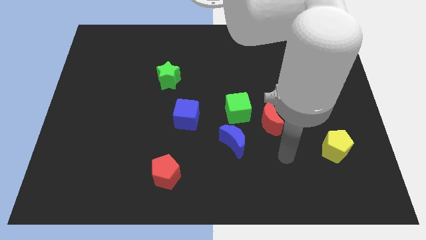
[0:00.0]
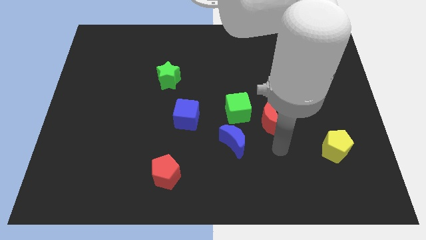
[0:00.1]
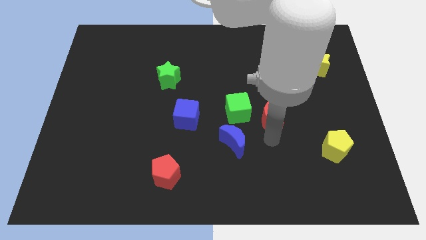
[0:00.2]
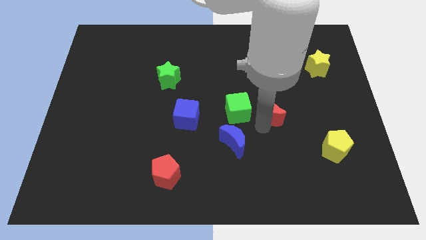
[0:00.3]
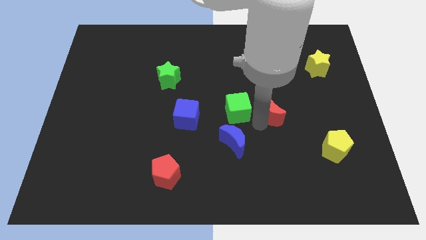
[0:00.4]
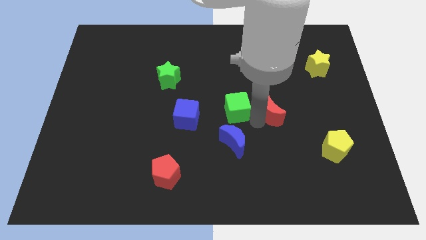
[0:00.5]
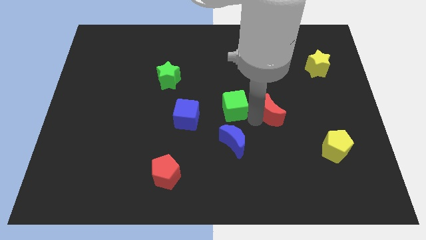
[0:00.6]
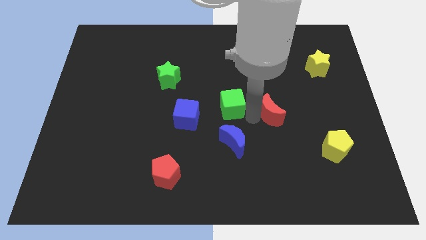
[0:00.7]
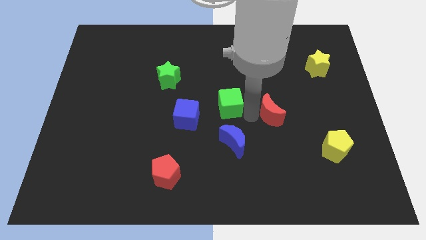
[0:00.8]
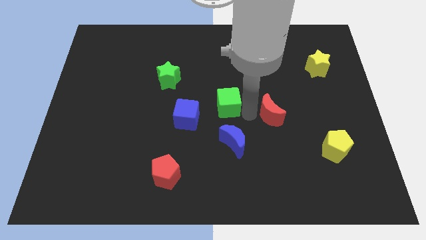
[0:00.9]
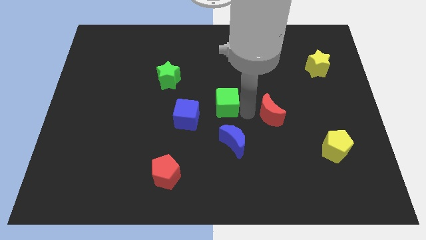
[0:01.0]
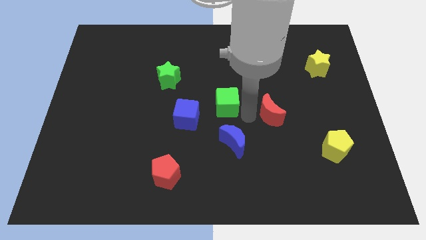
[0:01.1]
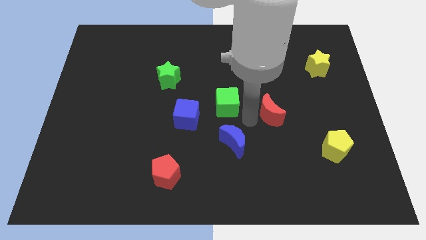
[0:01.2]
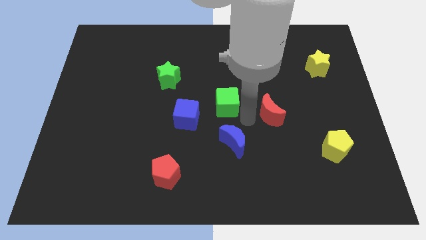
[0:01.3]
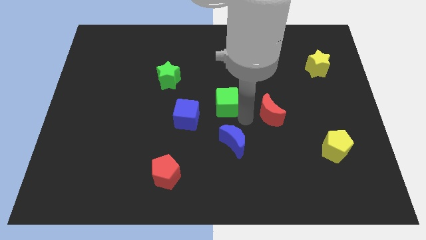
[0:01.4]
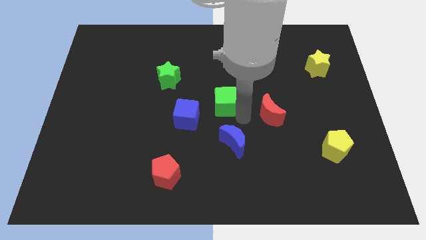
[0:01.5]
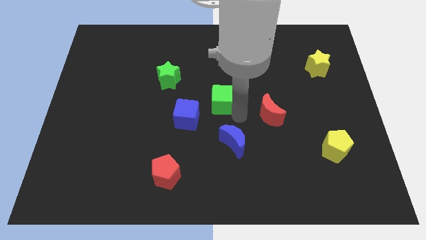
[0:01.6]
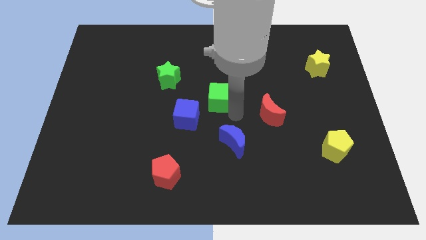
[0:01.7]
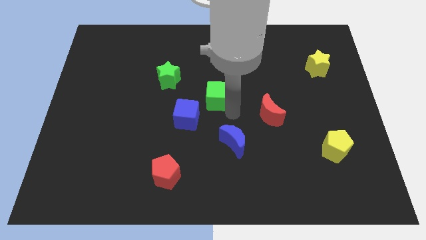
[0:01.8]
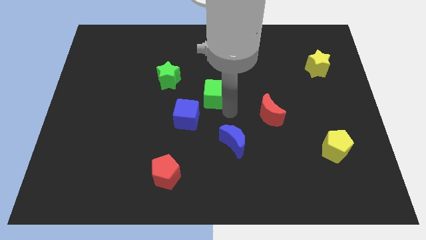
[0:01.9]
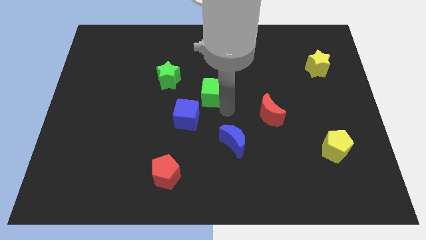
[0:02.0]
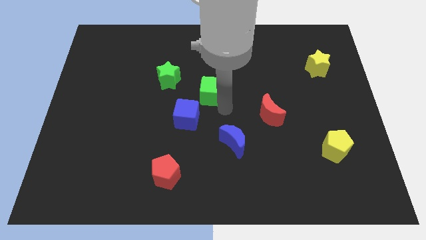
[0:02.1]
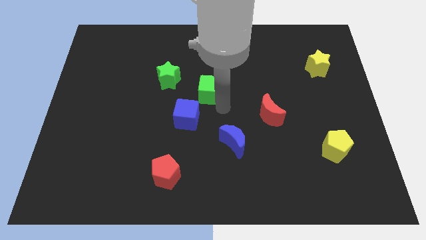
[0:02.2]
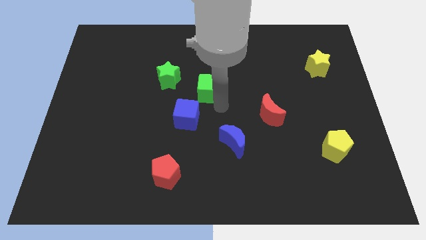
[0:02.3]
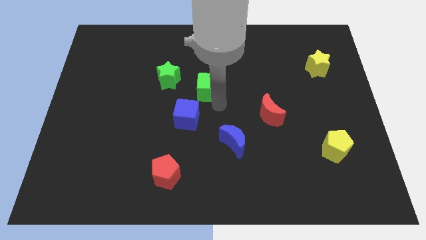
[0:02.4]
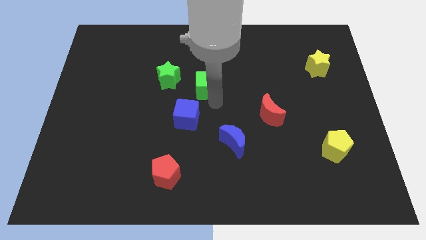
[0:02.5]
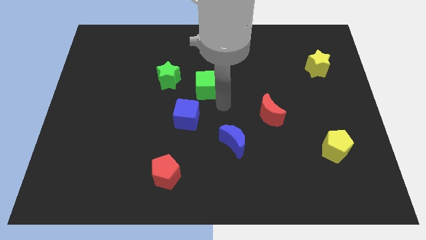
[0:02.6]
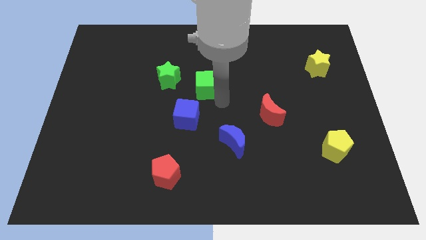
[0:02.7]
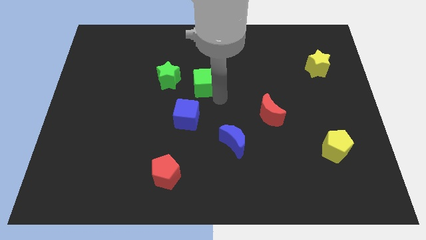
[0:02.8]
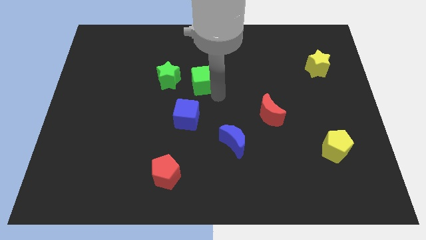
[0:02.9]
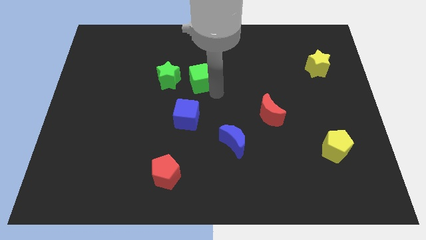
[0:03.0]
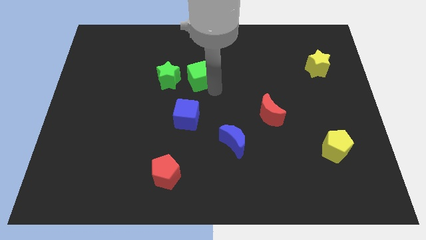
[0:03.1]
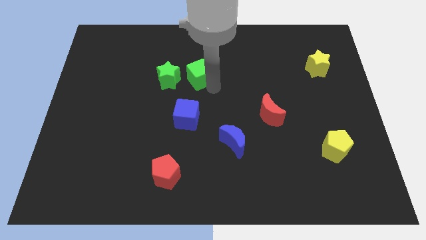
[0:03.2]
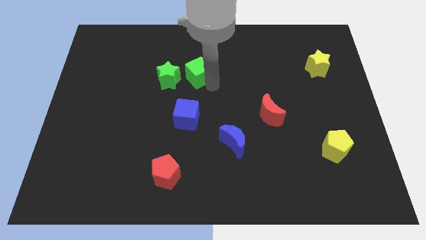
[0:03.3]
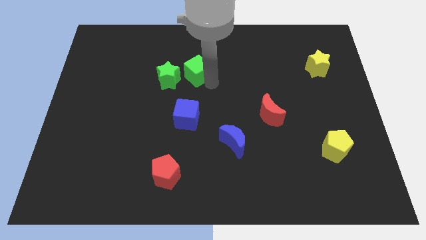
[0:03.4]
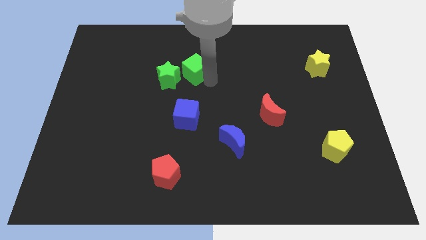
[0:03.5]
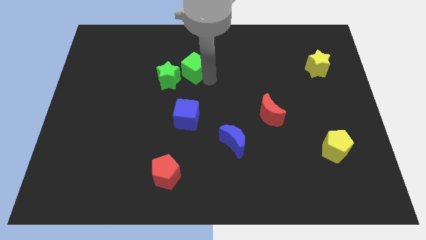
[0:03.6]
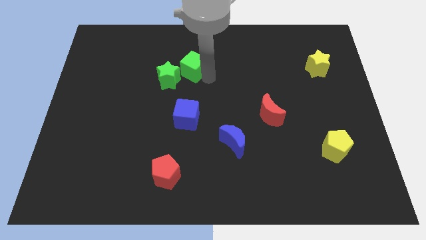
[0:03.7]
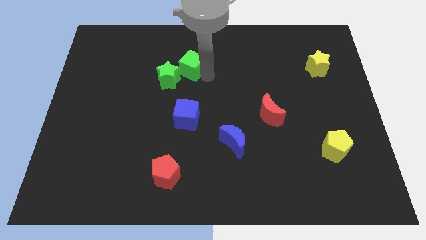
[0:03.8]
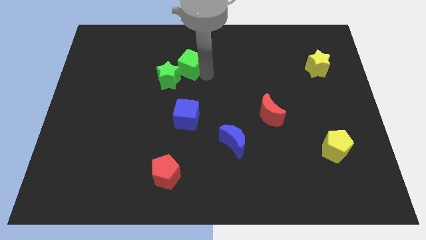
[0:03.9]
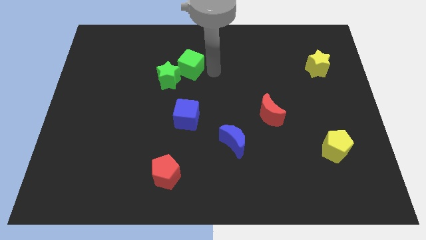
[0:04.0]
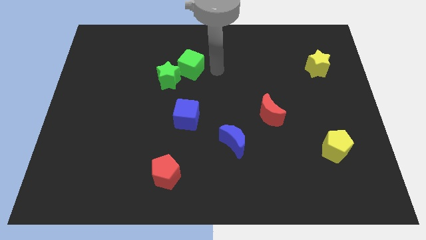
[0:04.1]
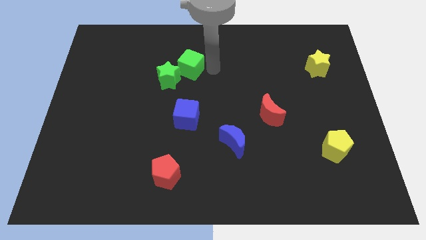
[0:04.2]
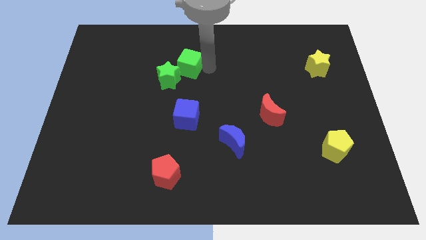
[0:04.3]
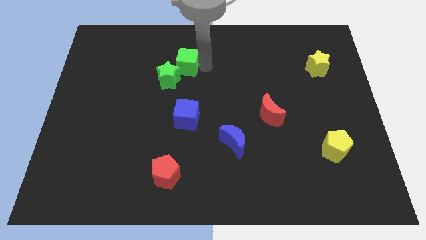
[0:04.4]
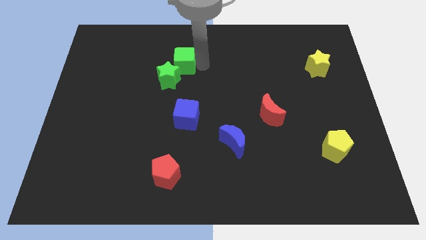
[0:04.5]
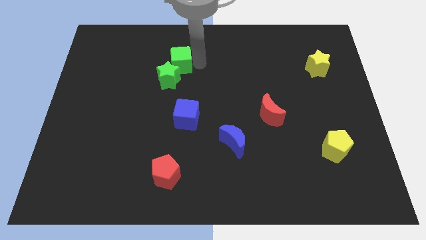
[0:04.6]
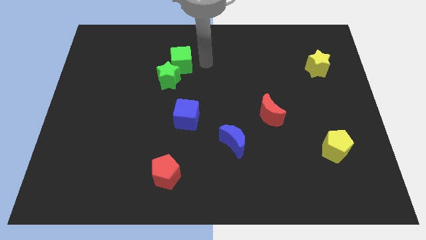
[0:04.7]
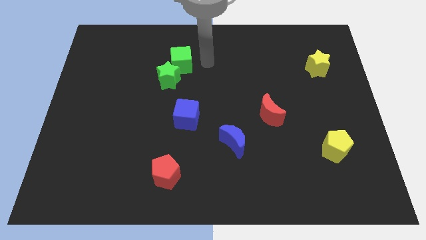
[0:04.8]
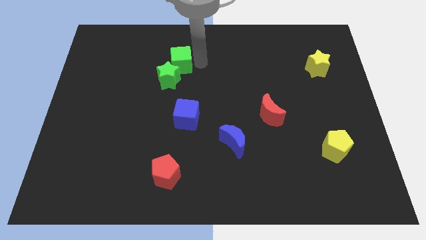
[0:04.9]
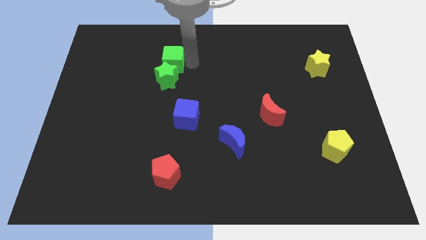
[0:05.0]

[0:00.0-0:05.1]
move the green cube diagonally up and to the left of the green star
